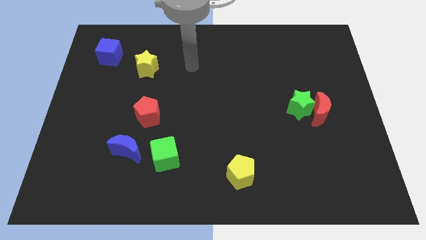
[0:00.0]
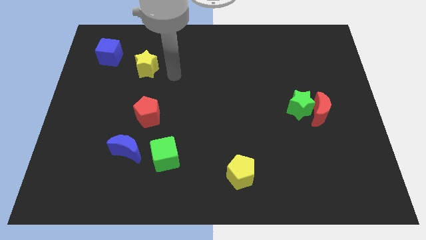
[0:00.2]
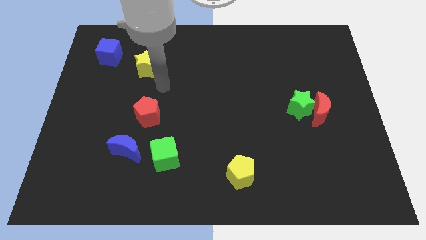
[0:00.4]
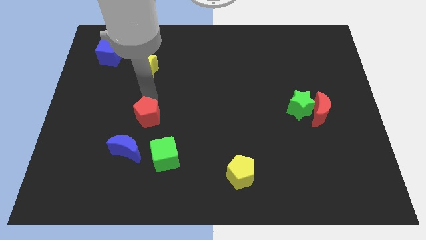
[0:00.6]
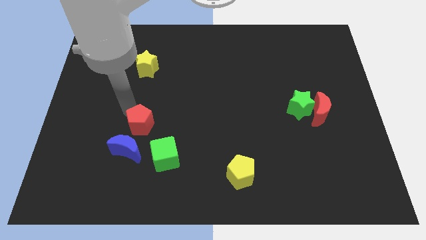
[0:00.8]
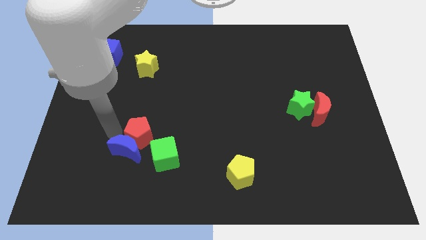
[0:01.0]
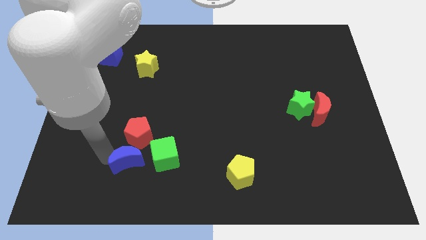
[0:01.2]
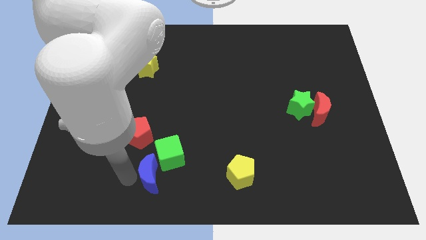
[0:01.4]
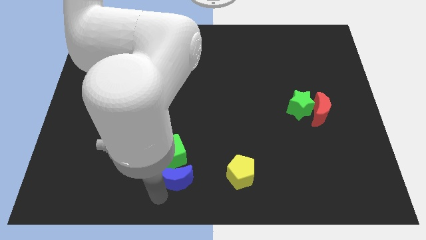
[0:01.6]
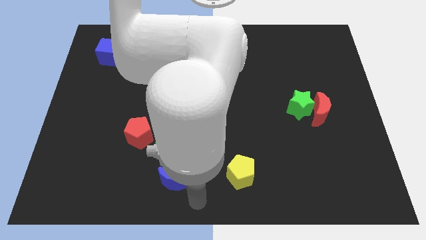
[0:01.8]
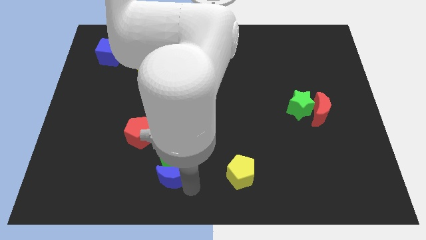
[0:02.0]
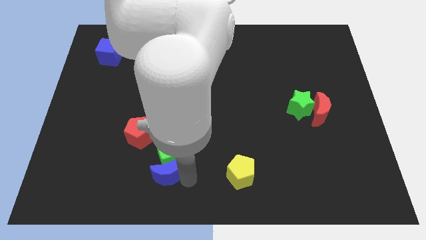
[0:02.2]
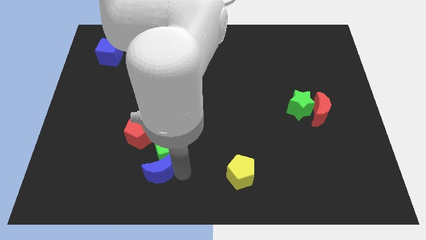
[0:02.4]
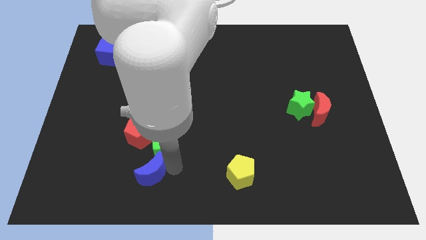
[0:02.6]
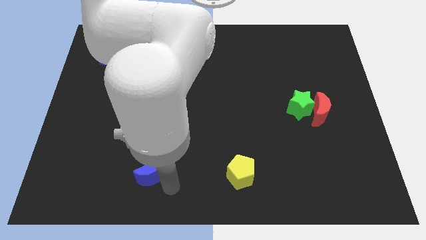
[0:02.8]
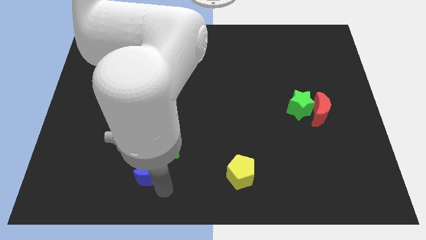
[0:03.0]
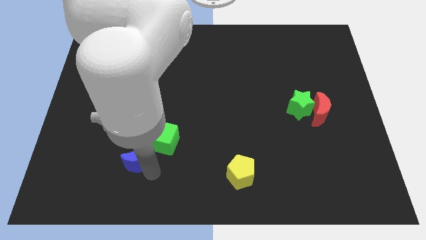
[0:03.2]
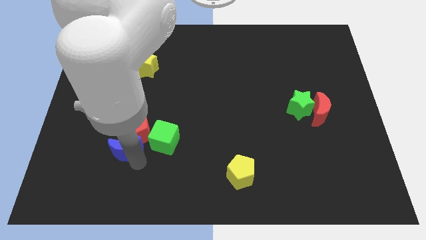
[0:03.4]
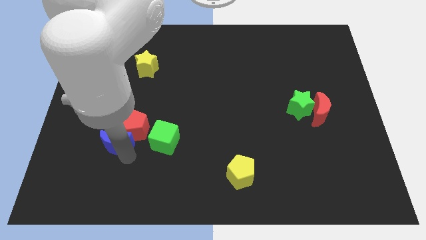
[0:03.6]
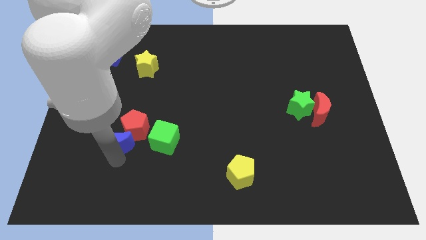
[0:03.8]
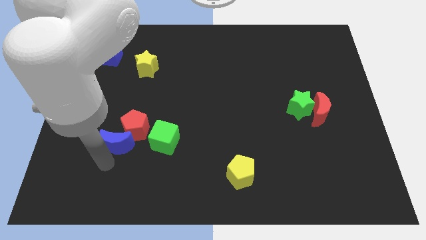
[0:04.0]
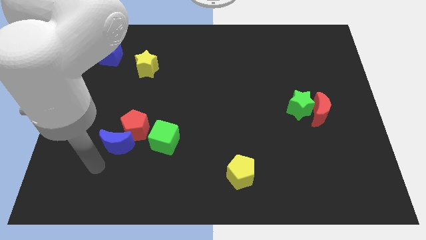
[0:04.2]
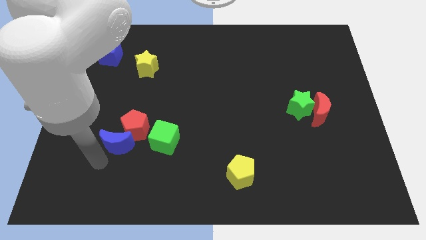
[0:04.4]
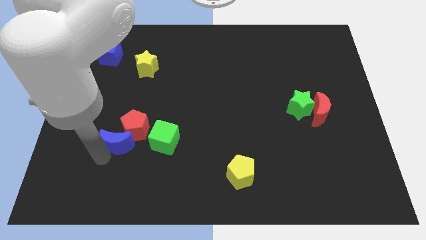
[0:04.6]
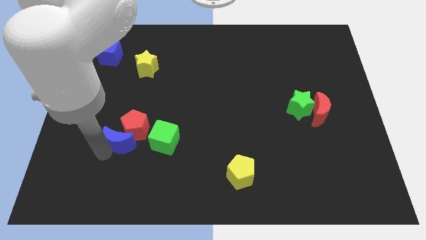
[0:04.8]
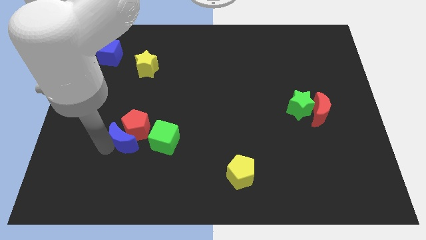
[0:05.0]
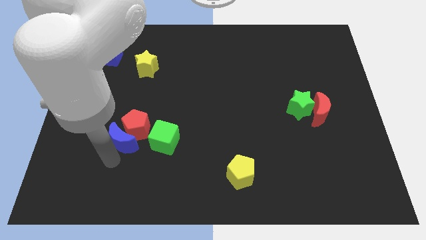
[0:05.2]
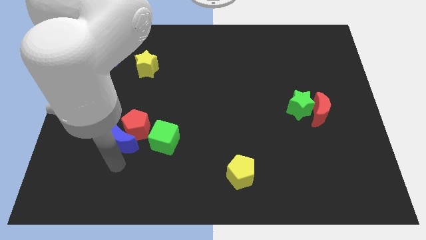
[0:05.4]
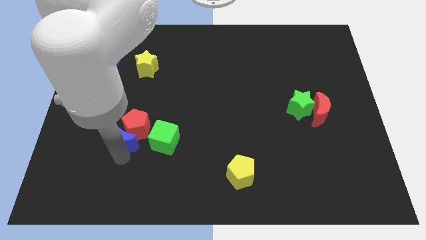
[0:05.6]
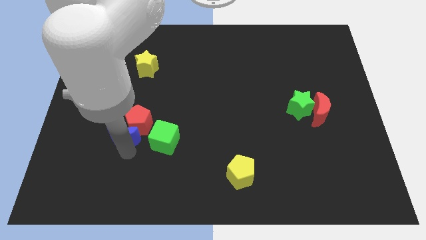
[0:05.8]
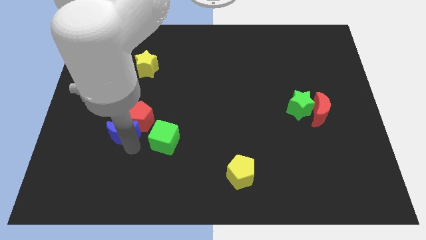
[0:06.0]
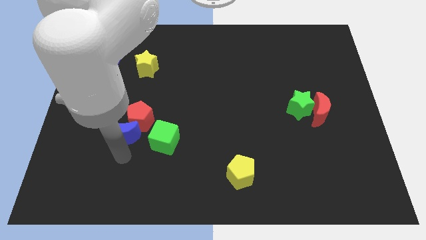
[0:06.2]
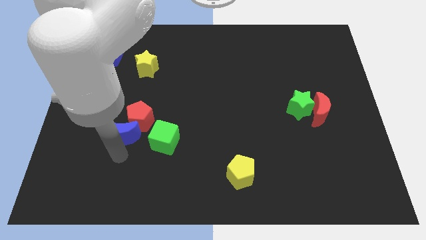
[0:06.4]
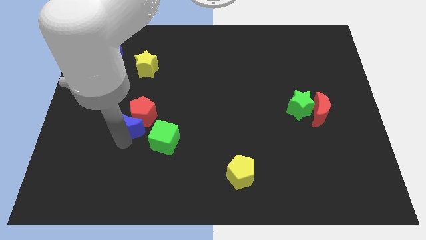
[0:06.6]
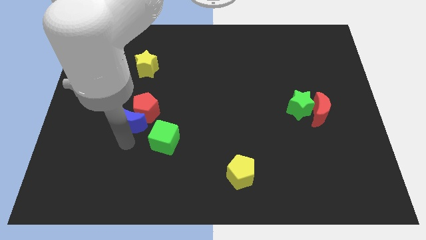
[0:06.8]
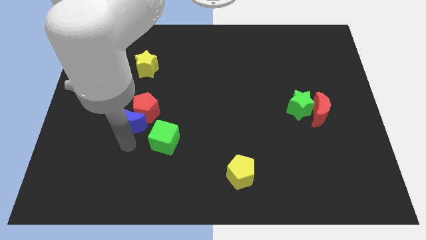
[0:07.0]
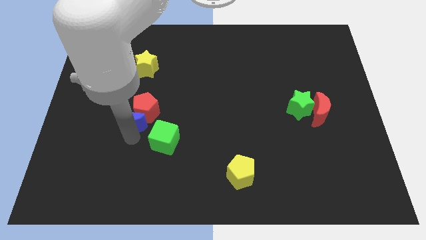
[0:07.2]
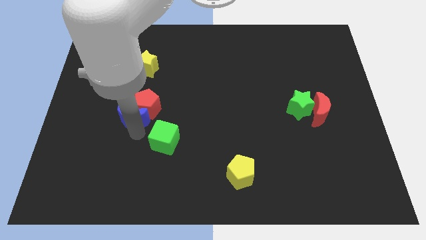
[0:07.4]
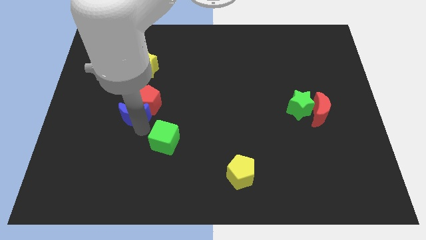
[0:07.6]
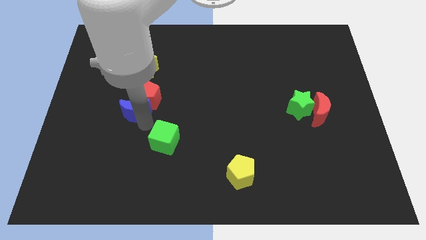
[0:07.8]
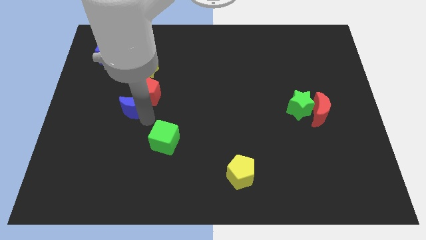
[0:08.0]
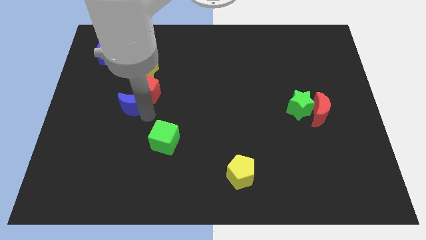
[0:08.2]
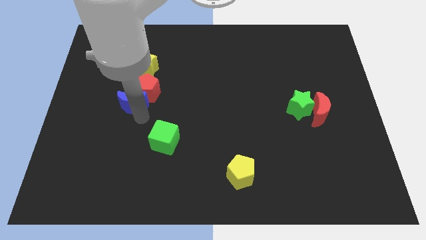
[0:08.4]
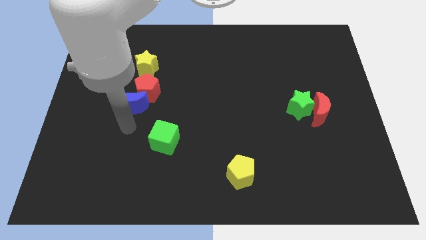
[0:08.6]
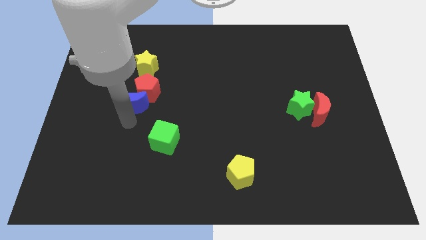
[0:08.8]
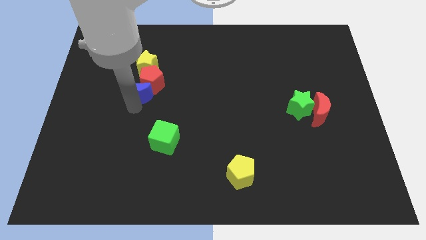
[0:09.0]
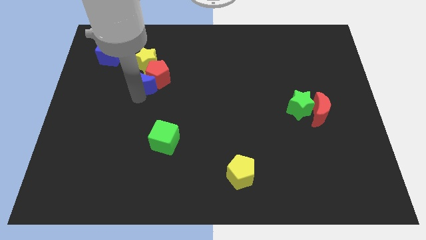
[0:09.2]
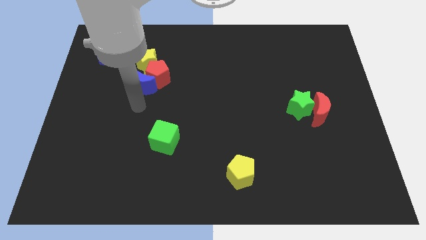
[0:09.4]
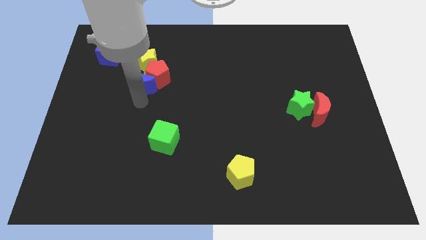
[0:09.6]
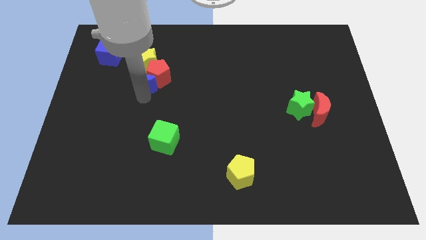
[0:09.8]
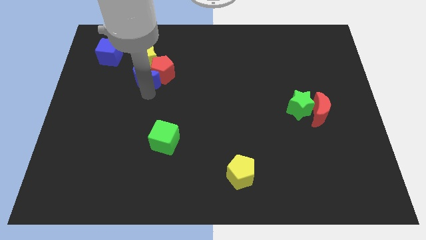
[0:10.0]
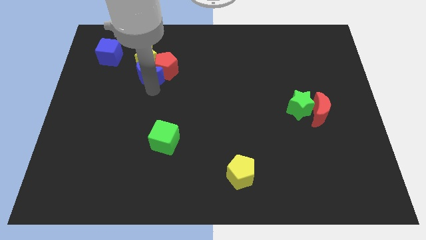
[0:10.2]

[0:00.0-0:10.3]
put the blue moon to the yellow star

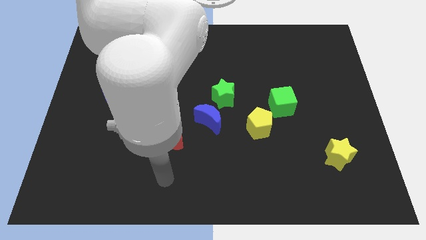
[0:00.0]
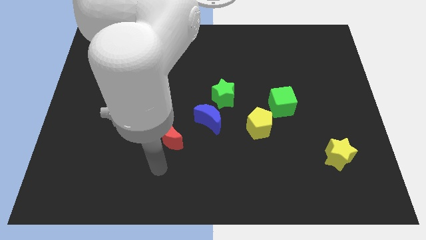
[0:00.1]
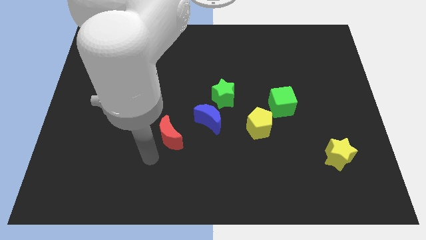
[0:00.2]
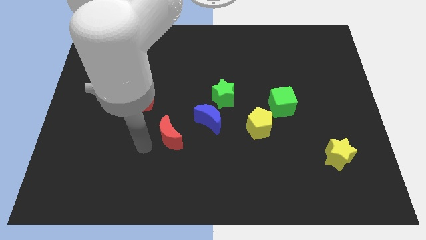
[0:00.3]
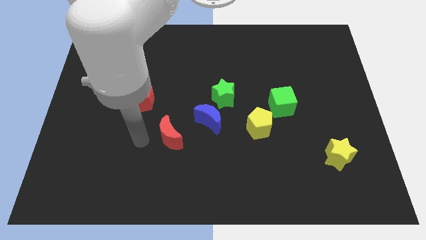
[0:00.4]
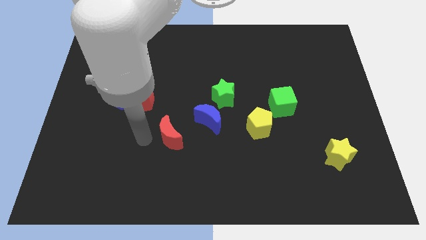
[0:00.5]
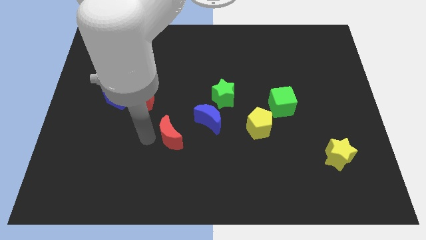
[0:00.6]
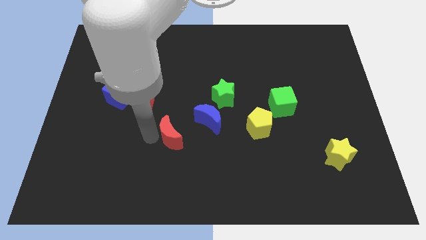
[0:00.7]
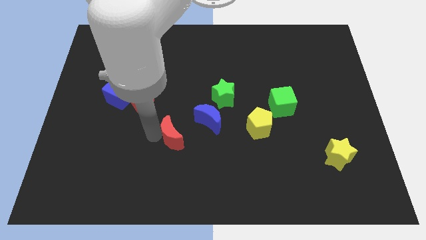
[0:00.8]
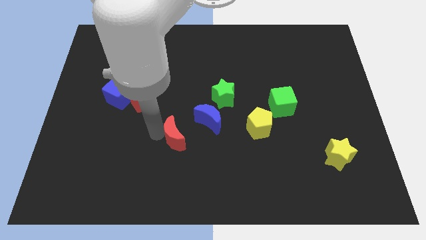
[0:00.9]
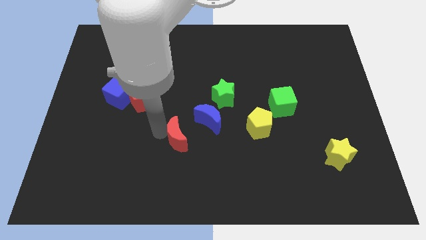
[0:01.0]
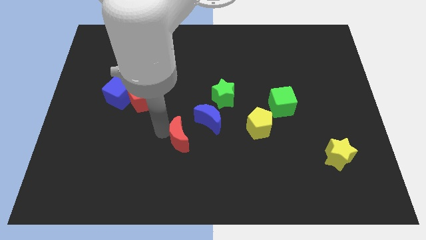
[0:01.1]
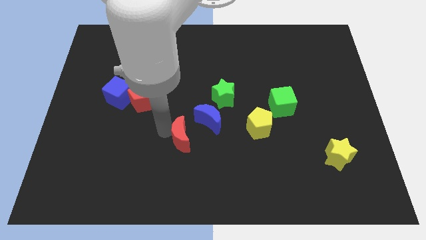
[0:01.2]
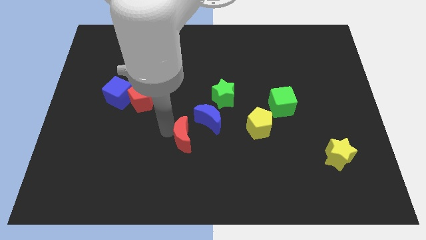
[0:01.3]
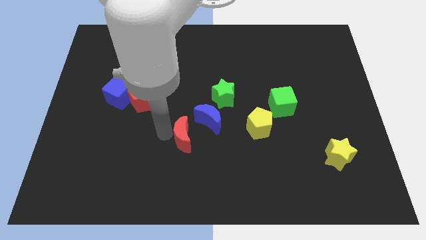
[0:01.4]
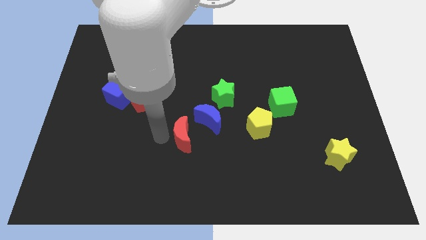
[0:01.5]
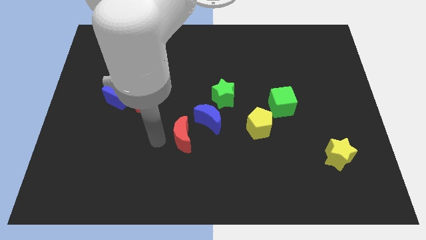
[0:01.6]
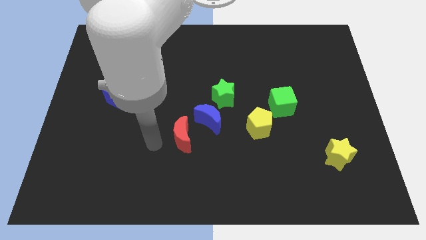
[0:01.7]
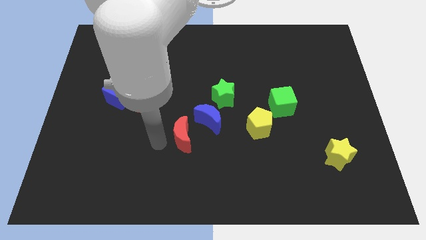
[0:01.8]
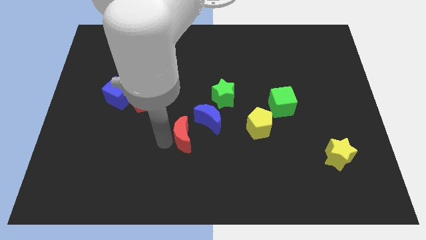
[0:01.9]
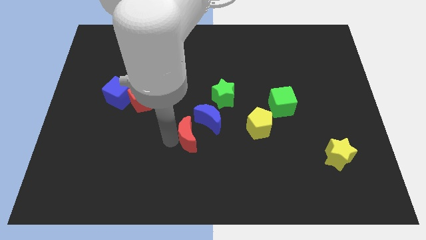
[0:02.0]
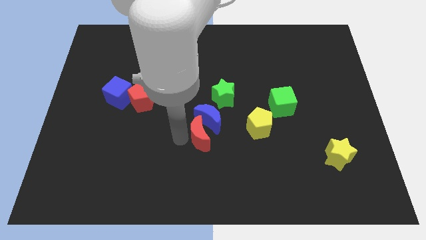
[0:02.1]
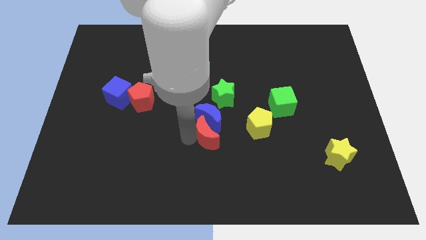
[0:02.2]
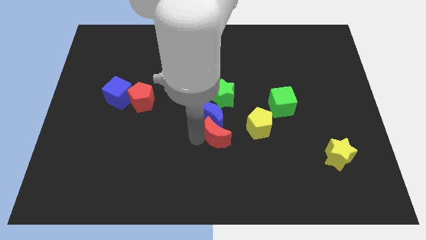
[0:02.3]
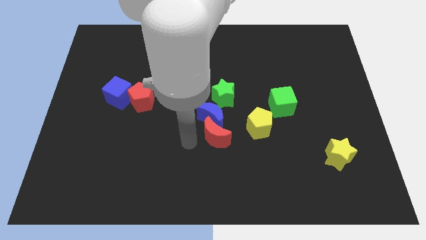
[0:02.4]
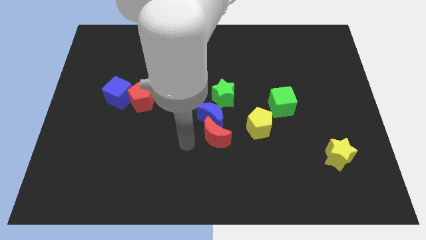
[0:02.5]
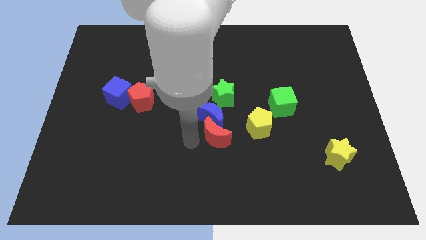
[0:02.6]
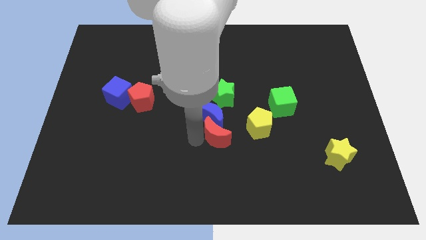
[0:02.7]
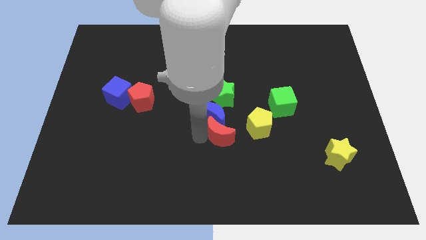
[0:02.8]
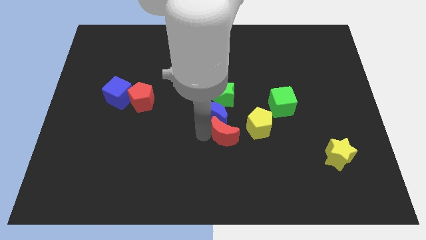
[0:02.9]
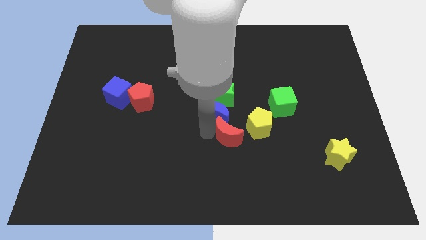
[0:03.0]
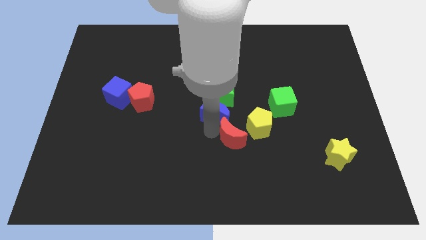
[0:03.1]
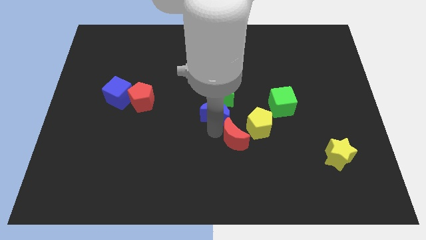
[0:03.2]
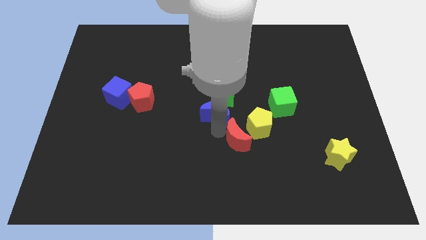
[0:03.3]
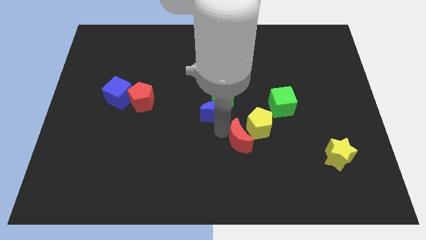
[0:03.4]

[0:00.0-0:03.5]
slide the red moon close to the yellow pentagon
